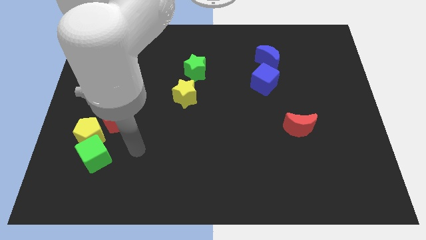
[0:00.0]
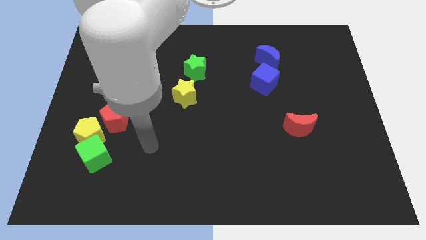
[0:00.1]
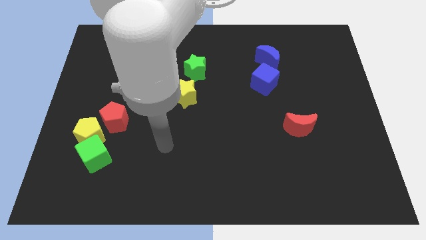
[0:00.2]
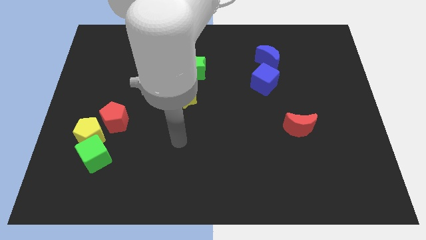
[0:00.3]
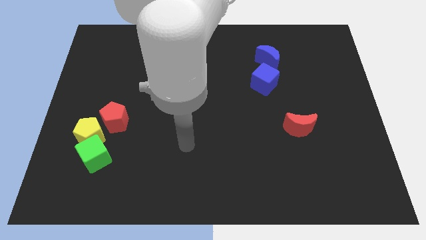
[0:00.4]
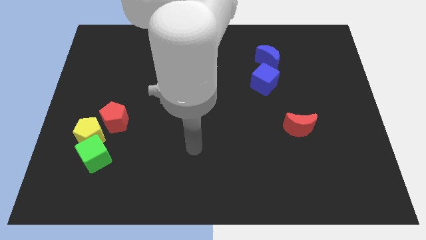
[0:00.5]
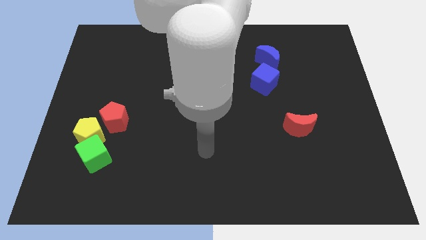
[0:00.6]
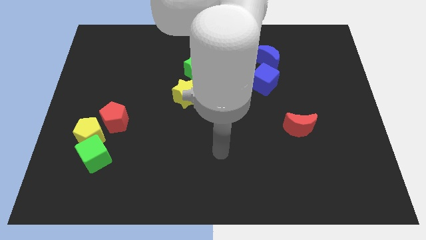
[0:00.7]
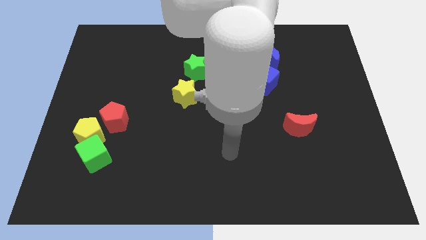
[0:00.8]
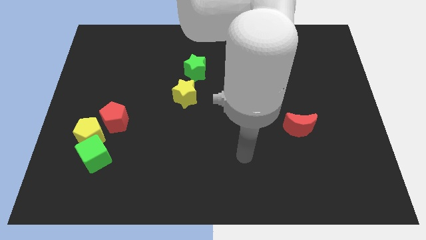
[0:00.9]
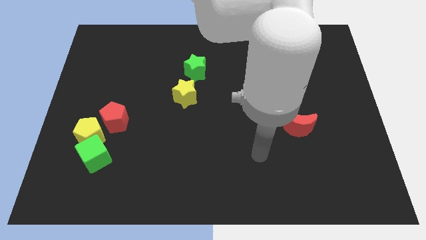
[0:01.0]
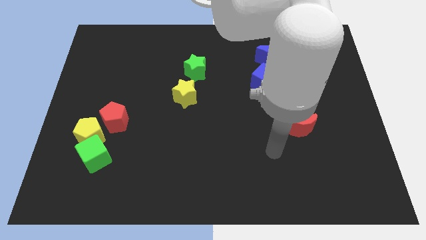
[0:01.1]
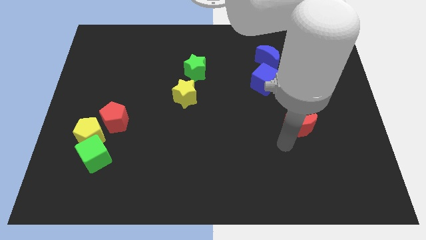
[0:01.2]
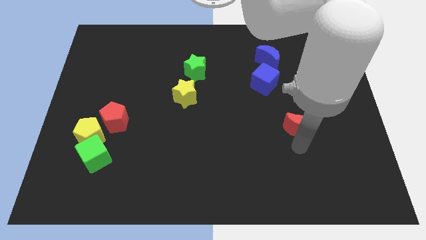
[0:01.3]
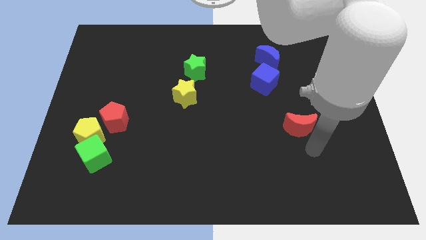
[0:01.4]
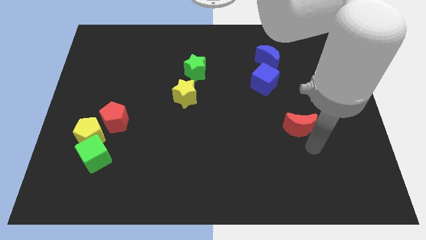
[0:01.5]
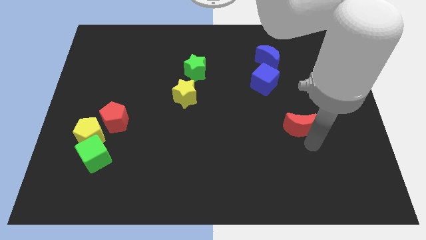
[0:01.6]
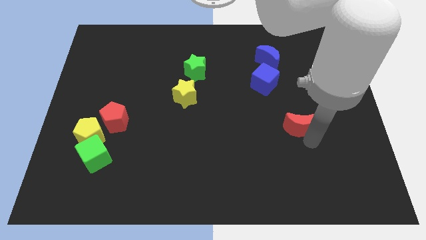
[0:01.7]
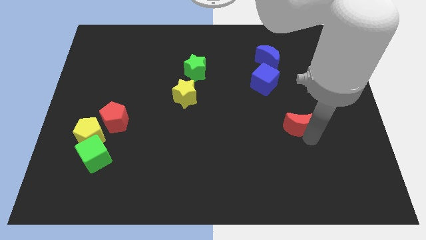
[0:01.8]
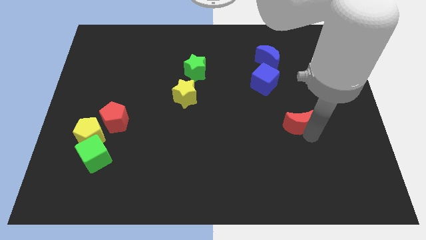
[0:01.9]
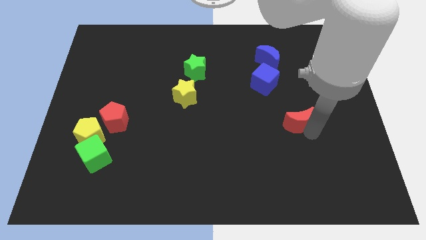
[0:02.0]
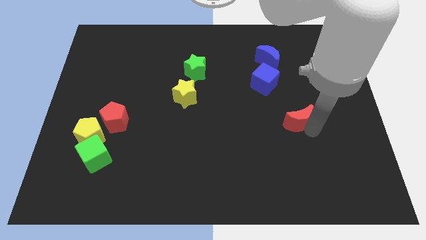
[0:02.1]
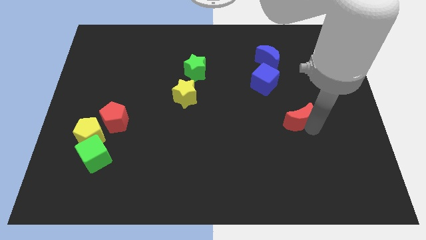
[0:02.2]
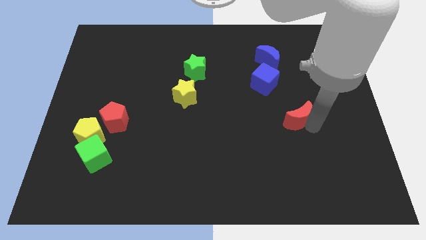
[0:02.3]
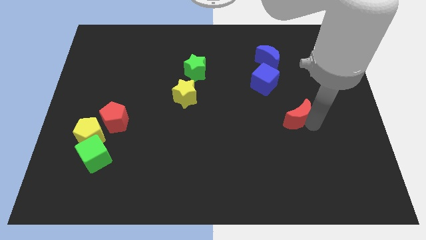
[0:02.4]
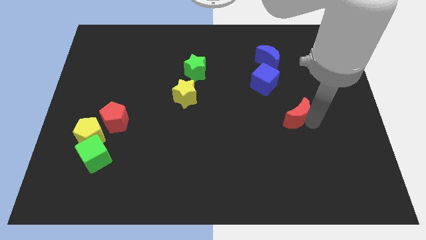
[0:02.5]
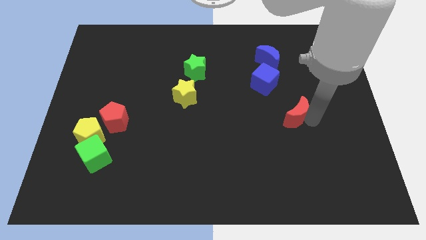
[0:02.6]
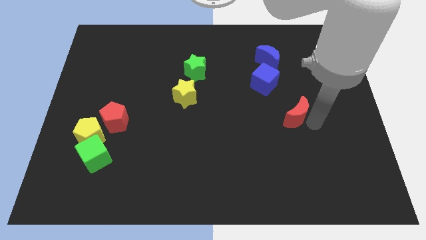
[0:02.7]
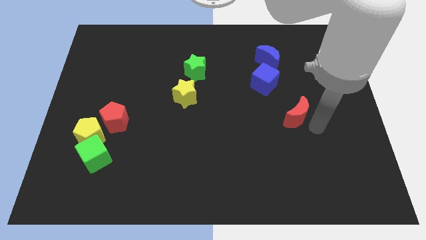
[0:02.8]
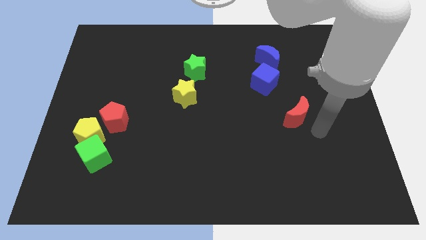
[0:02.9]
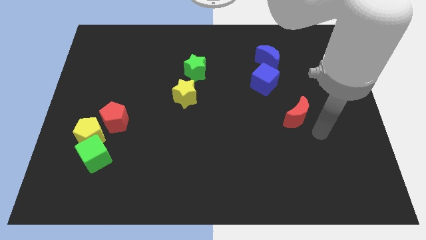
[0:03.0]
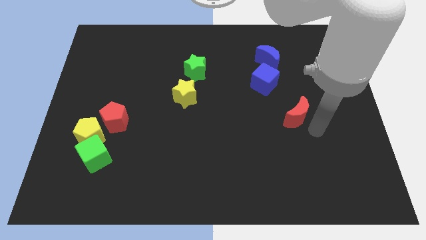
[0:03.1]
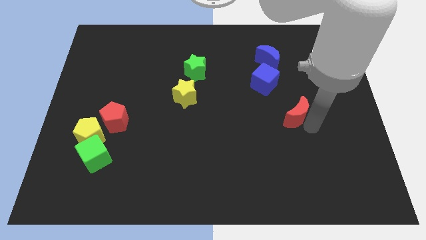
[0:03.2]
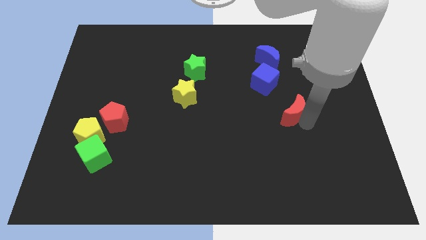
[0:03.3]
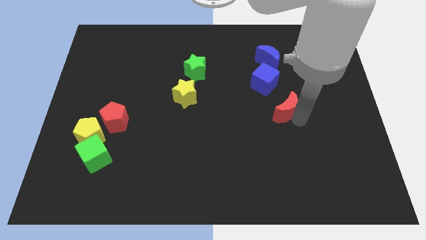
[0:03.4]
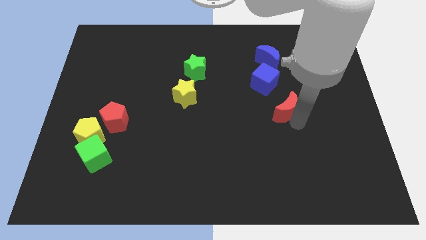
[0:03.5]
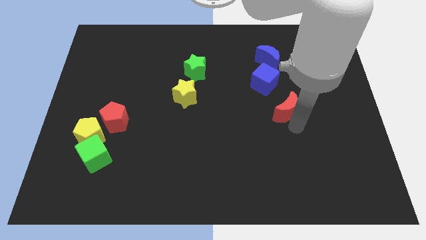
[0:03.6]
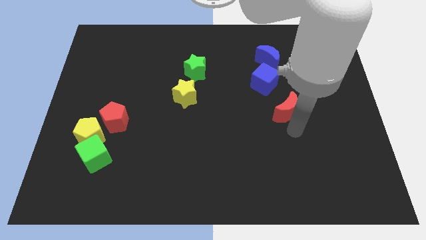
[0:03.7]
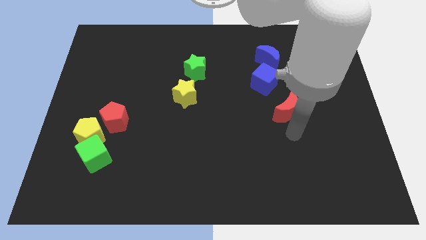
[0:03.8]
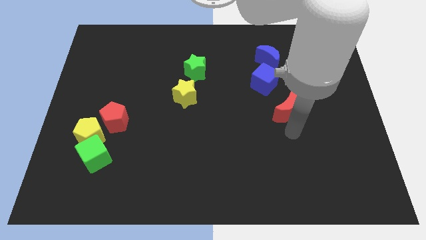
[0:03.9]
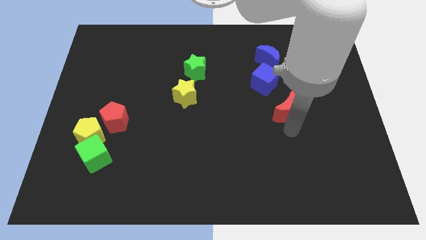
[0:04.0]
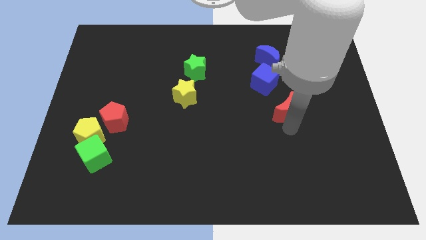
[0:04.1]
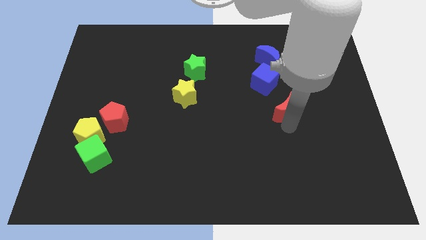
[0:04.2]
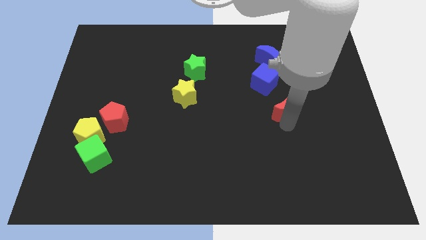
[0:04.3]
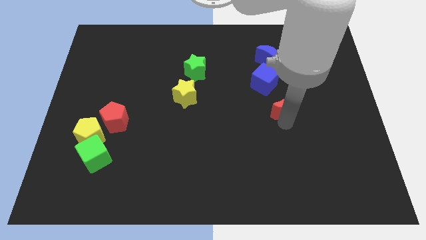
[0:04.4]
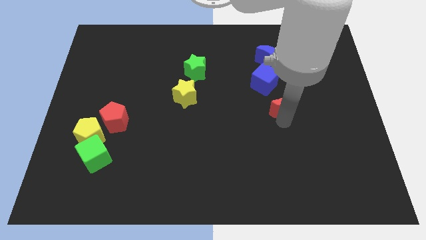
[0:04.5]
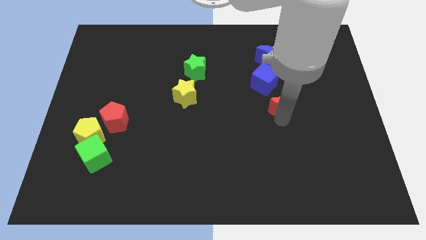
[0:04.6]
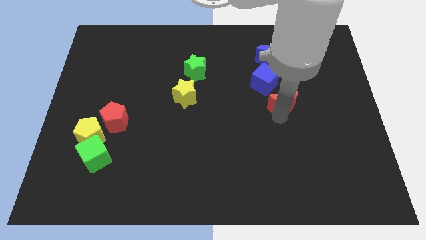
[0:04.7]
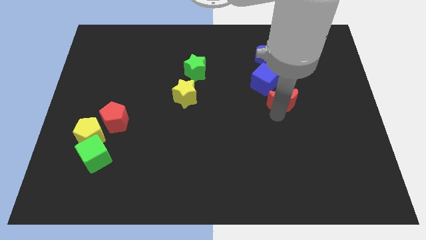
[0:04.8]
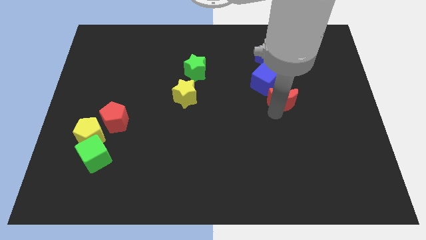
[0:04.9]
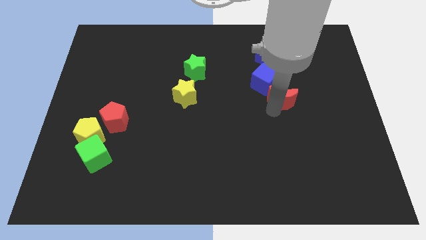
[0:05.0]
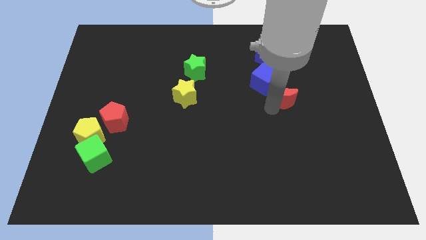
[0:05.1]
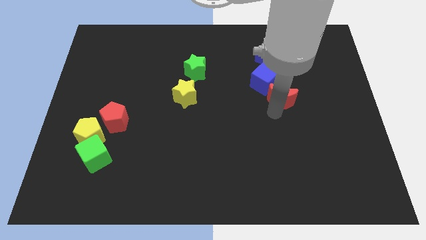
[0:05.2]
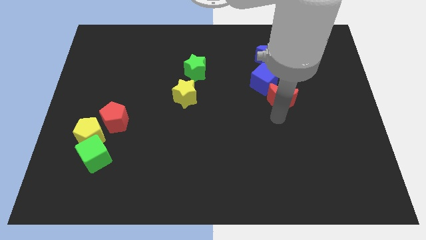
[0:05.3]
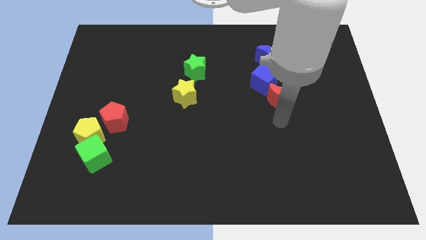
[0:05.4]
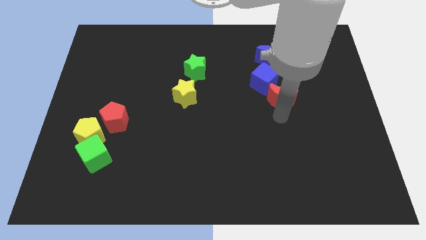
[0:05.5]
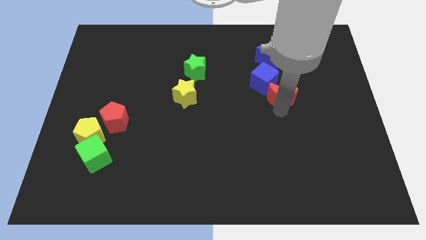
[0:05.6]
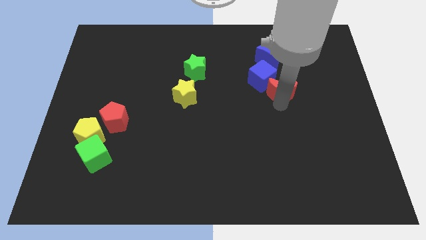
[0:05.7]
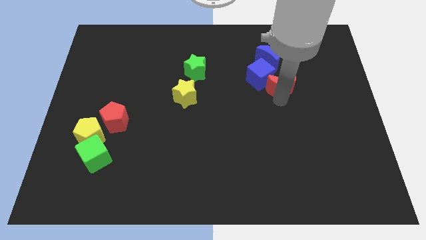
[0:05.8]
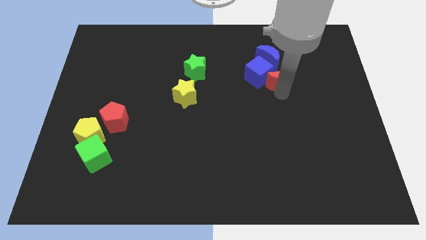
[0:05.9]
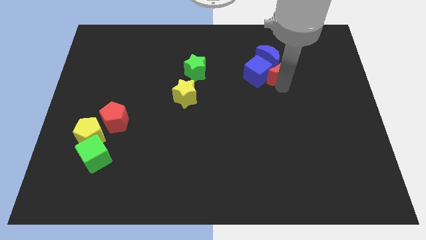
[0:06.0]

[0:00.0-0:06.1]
push the red moon close to the blue moon

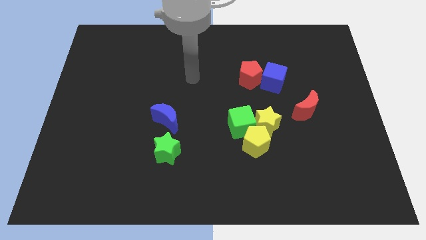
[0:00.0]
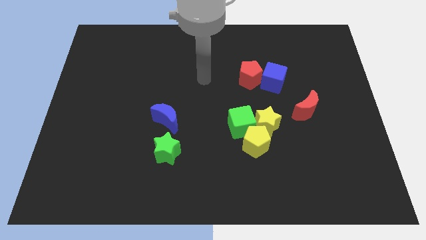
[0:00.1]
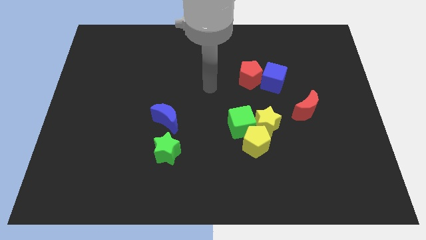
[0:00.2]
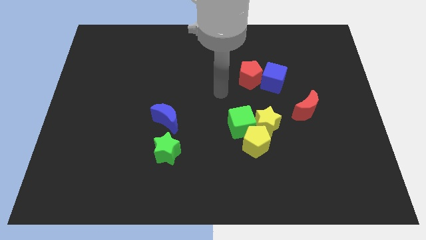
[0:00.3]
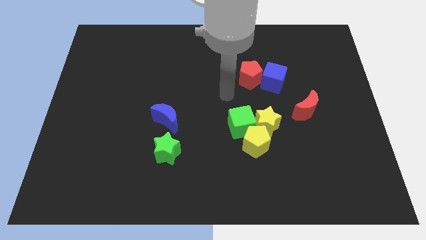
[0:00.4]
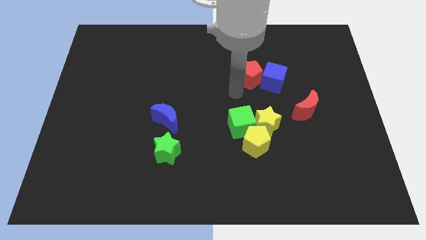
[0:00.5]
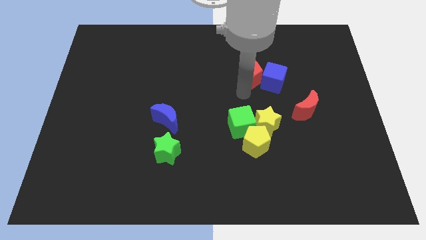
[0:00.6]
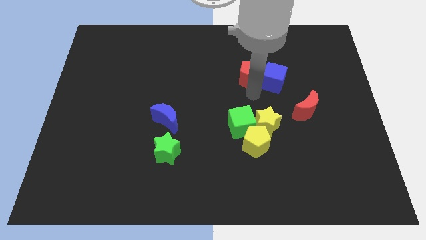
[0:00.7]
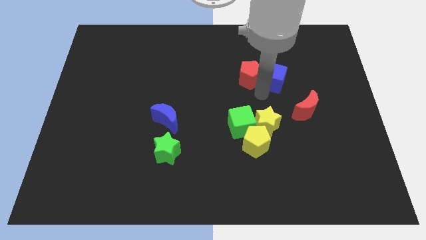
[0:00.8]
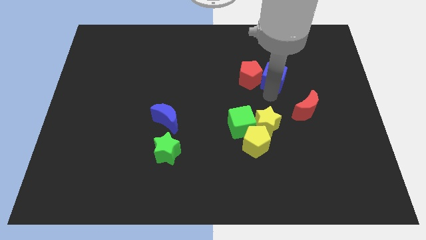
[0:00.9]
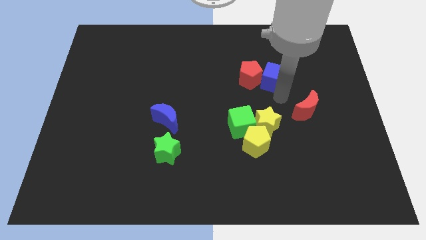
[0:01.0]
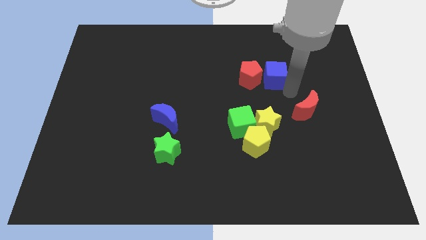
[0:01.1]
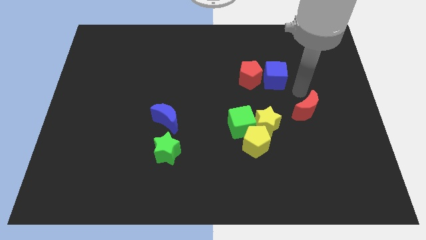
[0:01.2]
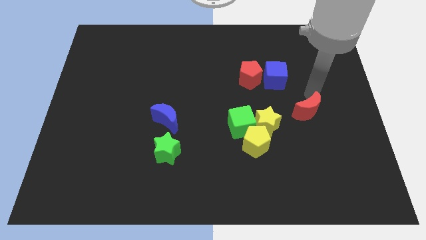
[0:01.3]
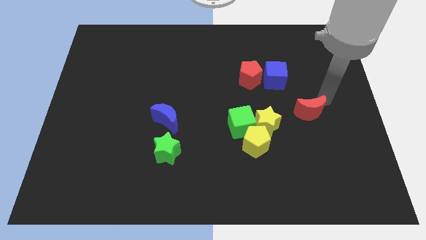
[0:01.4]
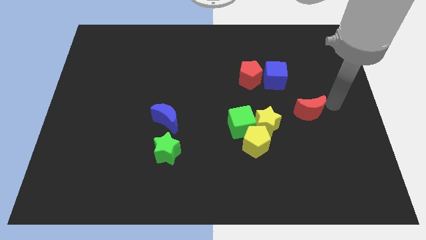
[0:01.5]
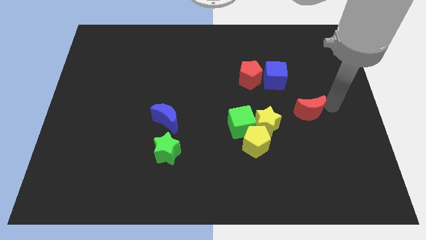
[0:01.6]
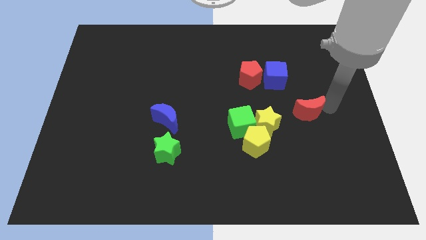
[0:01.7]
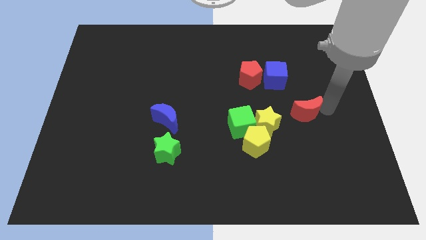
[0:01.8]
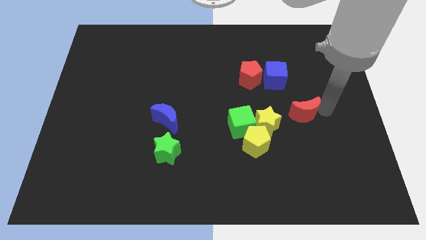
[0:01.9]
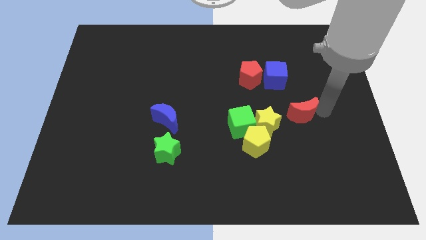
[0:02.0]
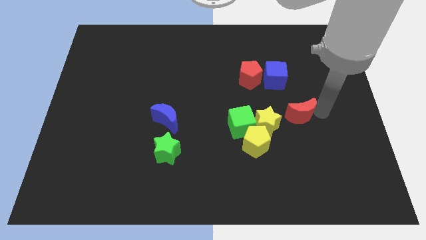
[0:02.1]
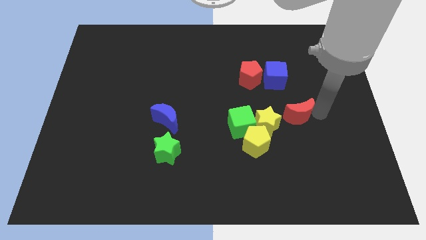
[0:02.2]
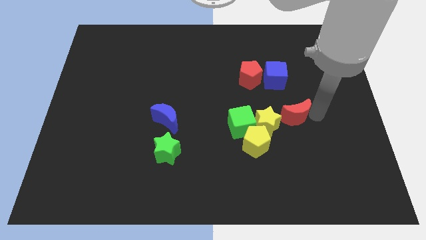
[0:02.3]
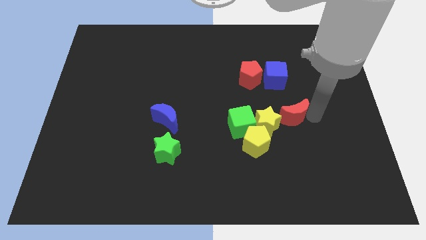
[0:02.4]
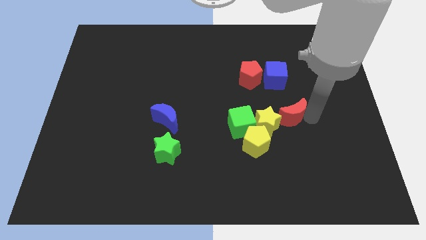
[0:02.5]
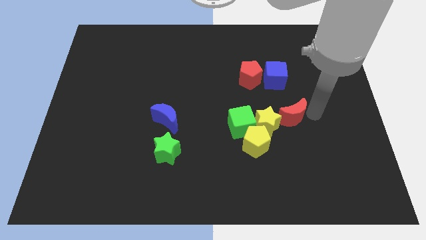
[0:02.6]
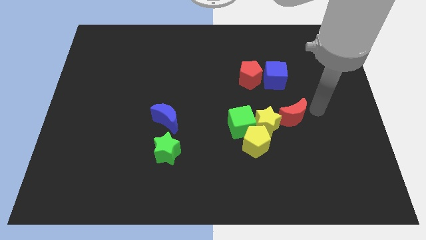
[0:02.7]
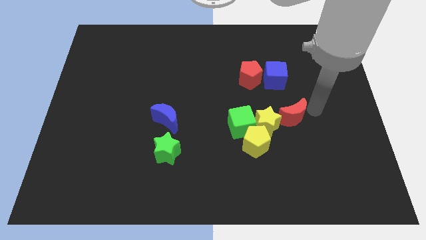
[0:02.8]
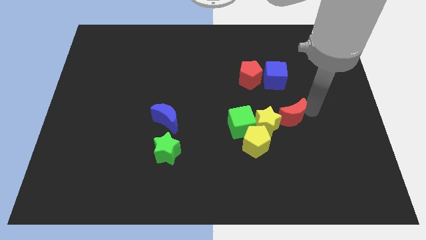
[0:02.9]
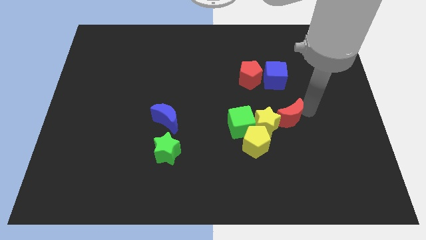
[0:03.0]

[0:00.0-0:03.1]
put the red moon to the yellow star
